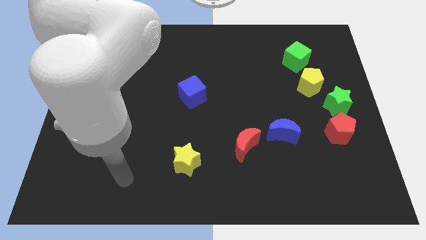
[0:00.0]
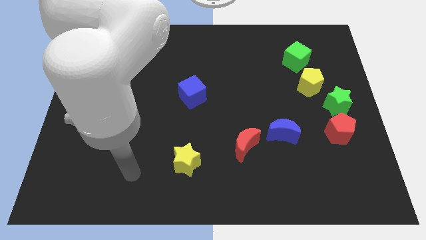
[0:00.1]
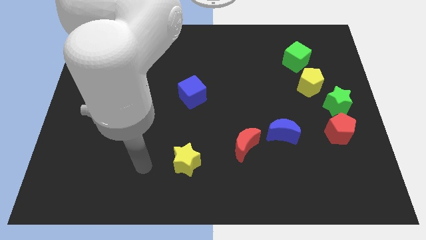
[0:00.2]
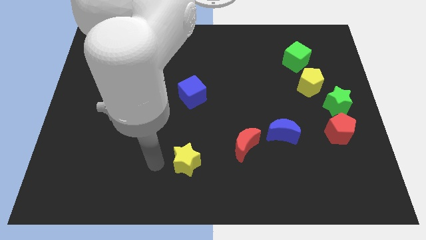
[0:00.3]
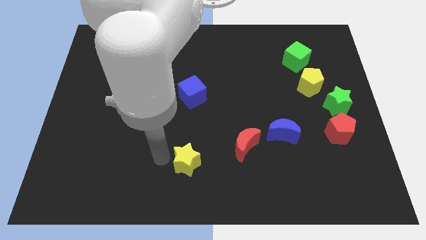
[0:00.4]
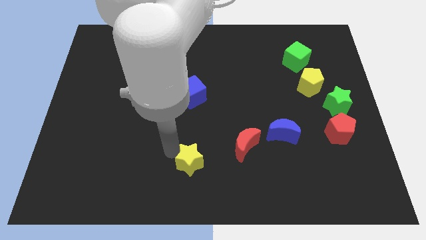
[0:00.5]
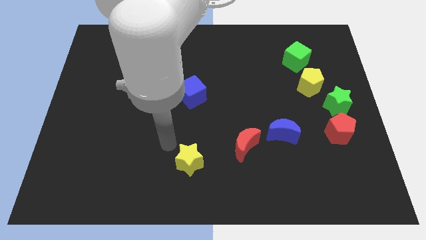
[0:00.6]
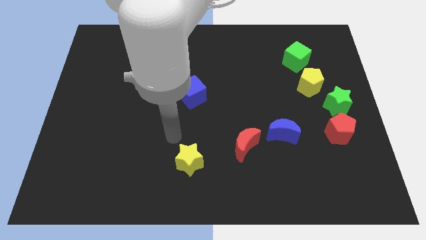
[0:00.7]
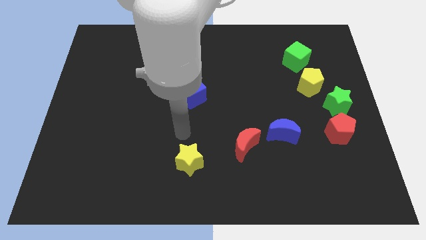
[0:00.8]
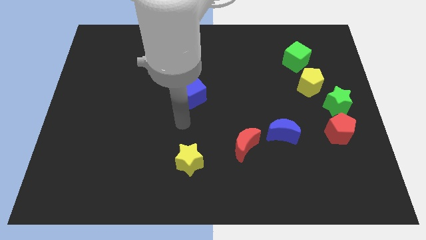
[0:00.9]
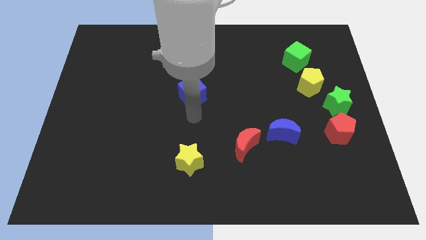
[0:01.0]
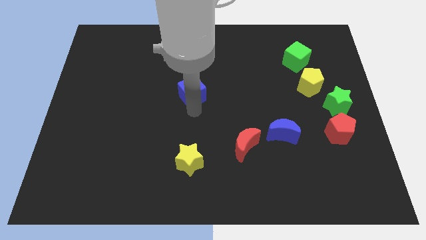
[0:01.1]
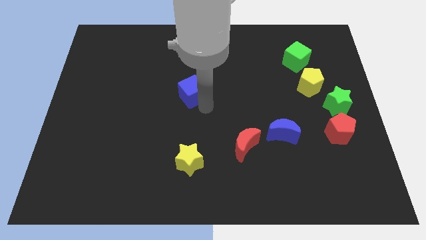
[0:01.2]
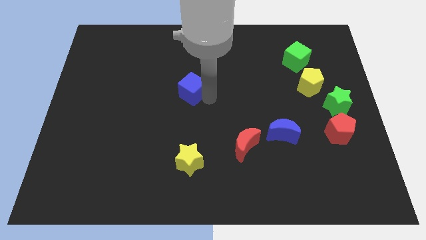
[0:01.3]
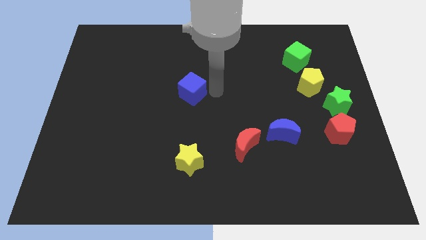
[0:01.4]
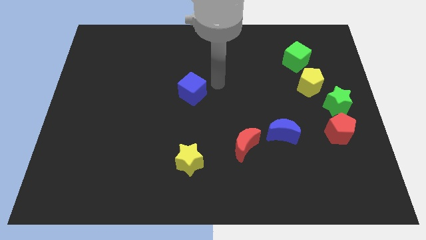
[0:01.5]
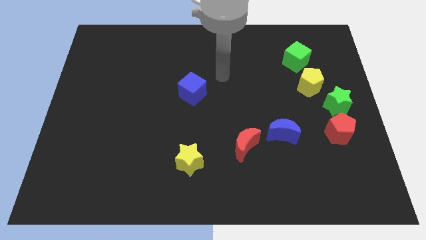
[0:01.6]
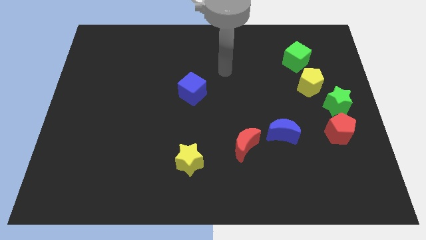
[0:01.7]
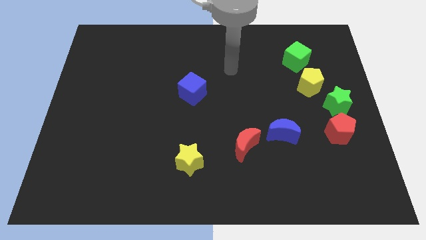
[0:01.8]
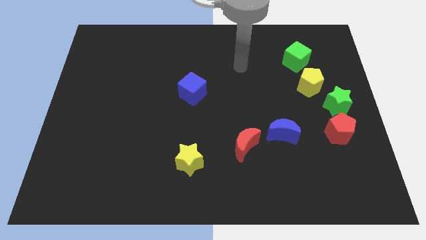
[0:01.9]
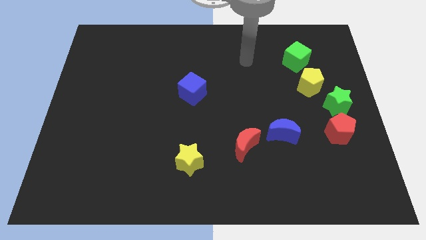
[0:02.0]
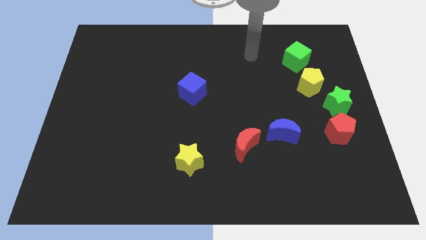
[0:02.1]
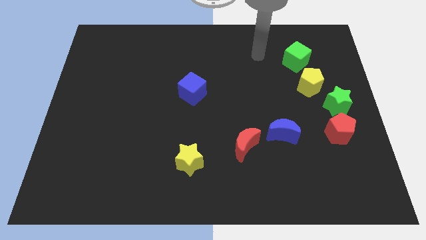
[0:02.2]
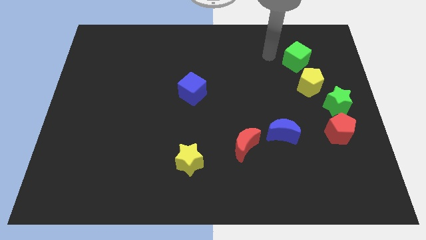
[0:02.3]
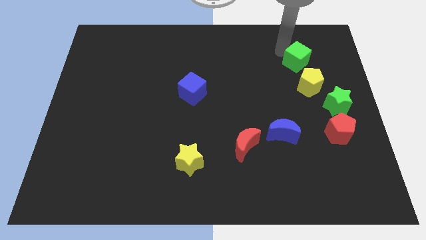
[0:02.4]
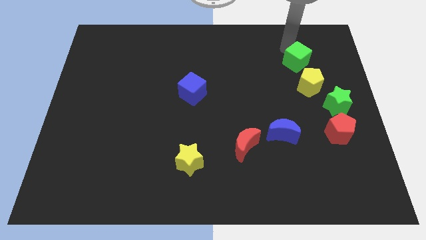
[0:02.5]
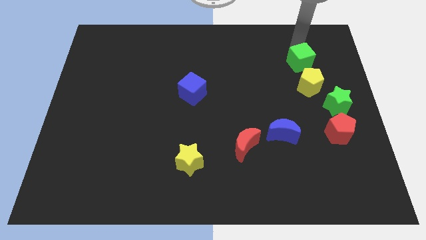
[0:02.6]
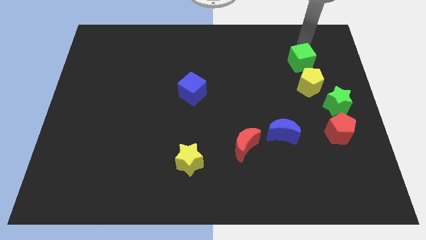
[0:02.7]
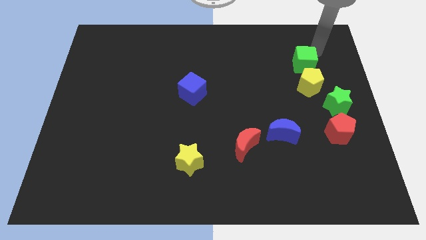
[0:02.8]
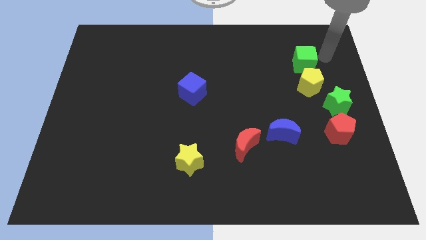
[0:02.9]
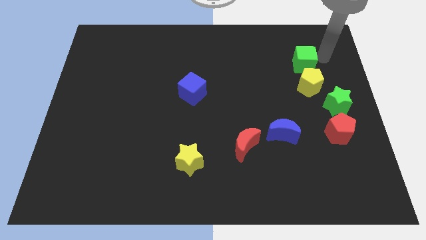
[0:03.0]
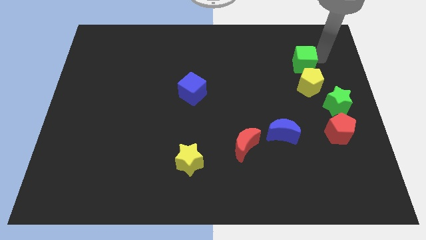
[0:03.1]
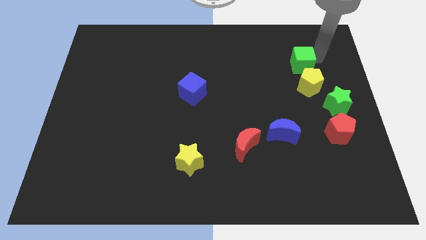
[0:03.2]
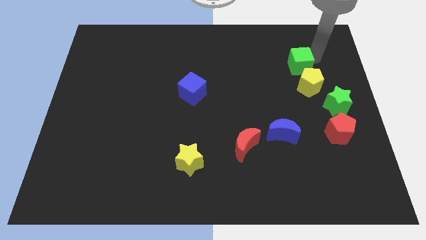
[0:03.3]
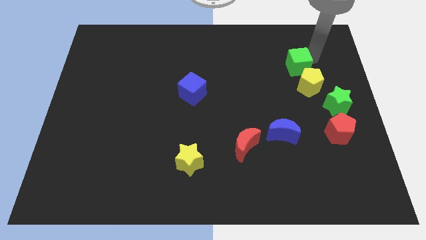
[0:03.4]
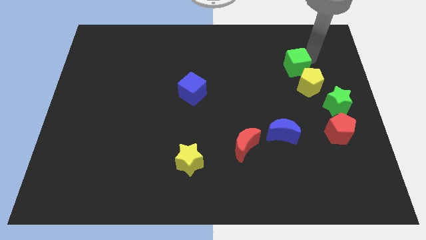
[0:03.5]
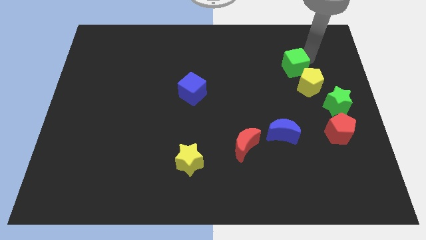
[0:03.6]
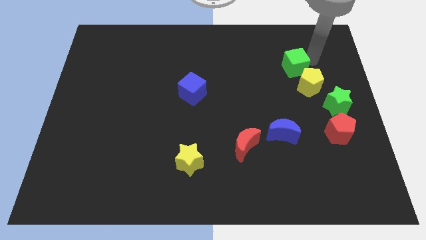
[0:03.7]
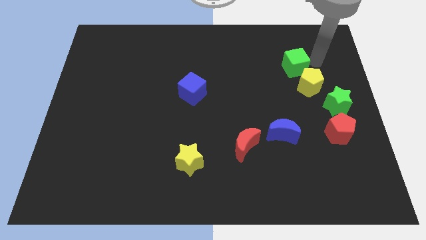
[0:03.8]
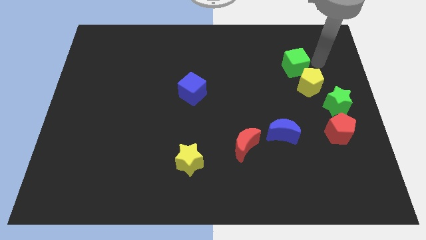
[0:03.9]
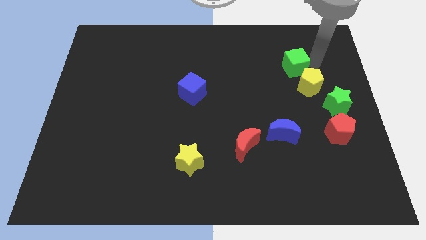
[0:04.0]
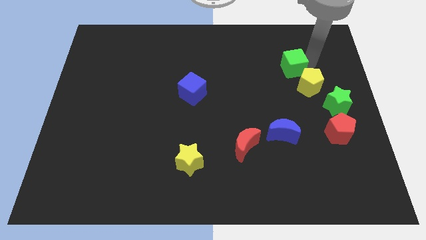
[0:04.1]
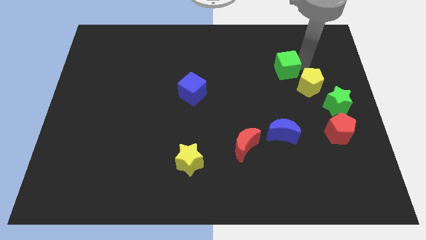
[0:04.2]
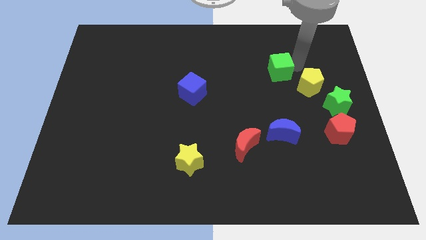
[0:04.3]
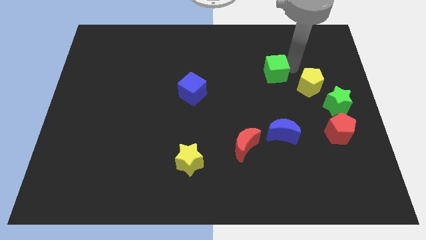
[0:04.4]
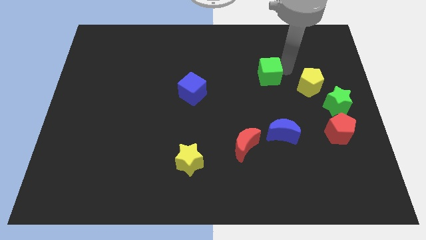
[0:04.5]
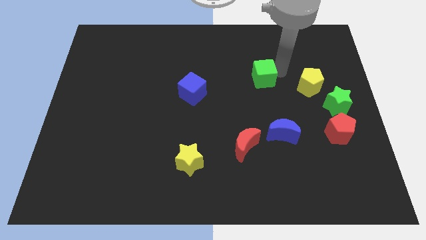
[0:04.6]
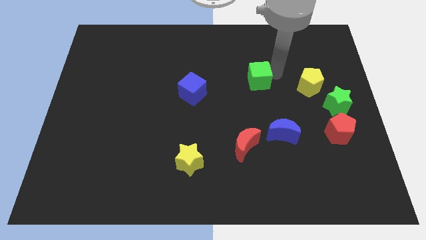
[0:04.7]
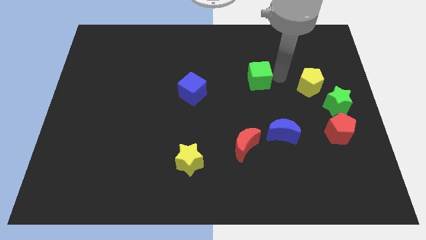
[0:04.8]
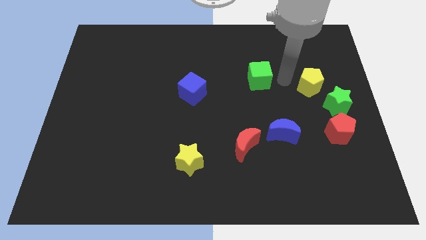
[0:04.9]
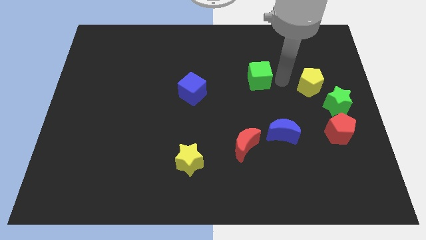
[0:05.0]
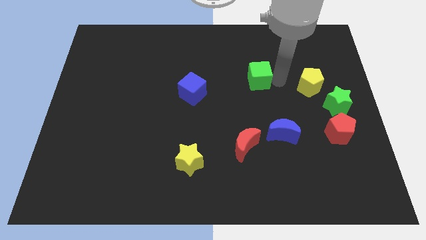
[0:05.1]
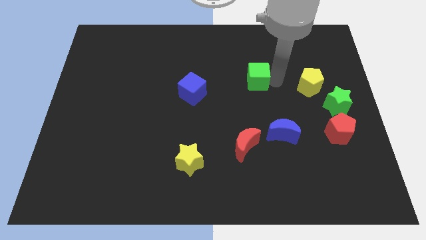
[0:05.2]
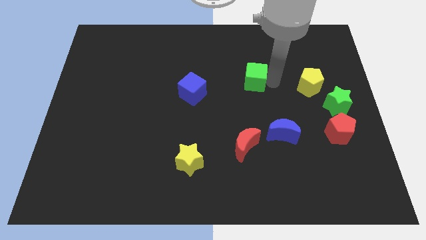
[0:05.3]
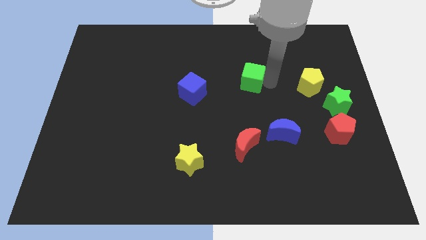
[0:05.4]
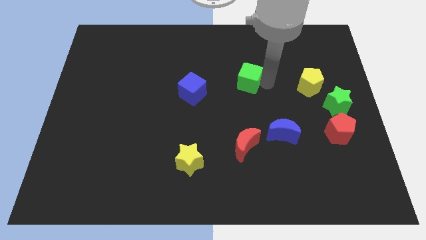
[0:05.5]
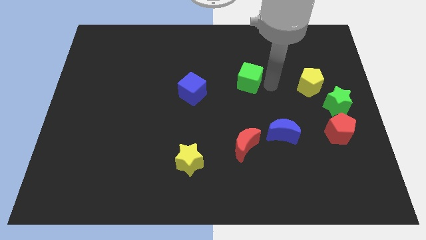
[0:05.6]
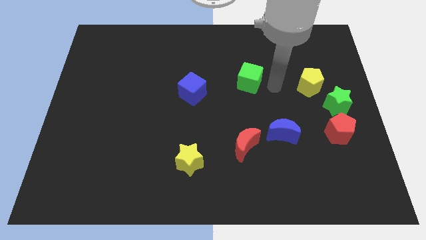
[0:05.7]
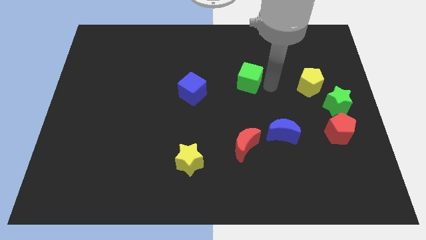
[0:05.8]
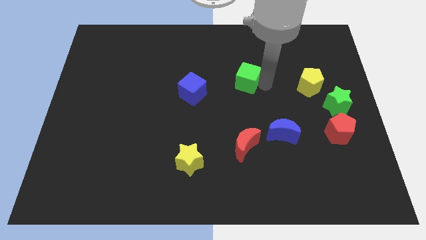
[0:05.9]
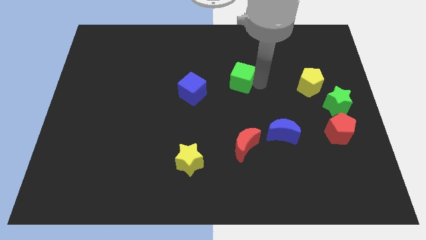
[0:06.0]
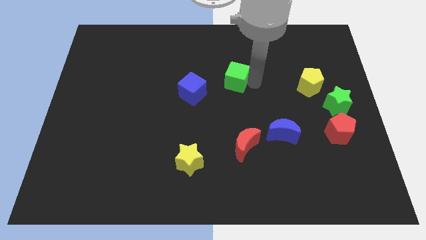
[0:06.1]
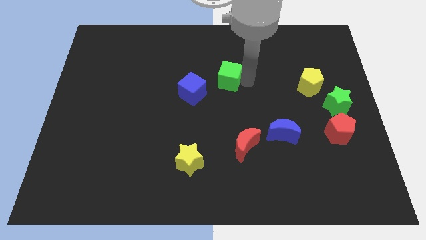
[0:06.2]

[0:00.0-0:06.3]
slide the green cube to the top right side of the blue cube
